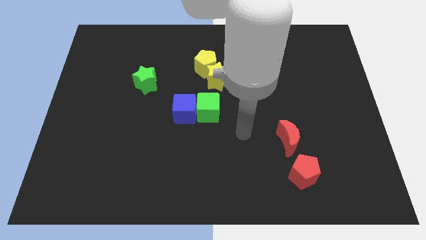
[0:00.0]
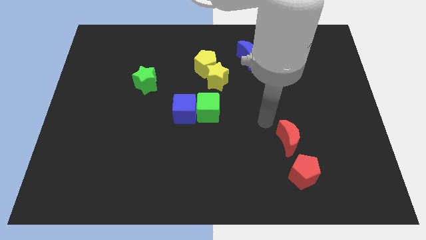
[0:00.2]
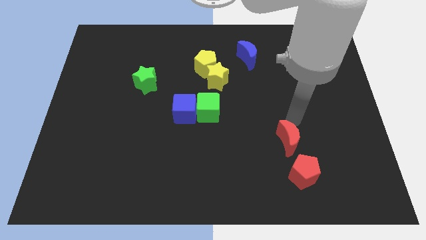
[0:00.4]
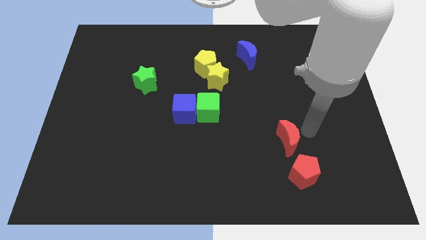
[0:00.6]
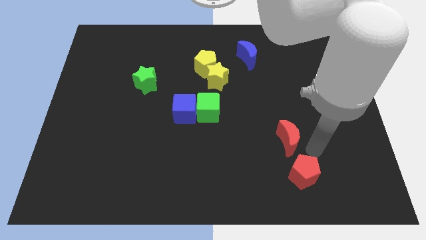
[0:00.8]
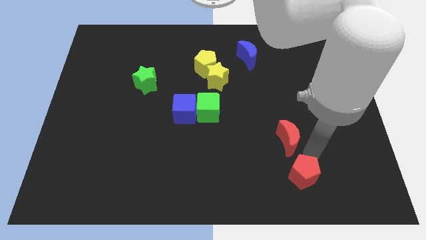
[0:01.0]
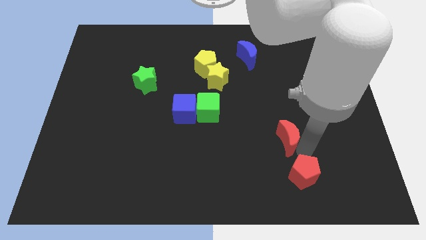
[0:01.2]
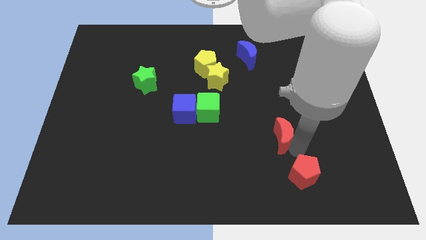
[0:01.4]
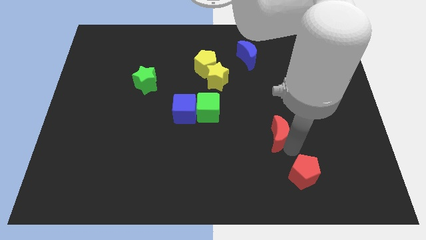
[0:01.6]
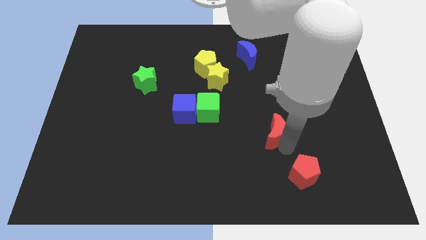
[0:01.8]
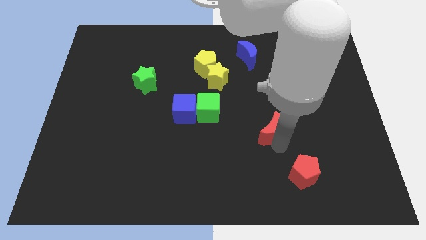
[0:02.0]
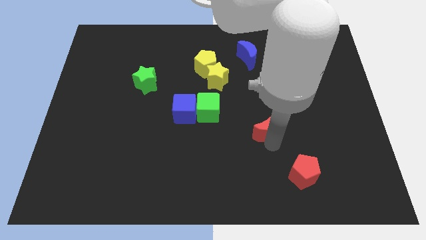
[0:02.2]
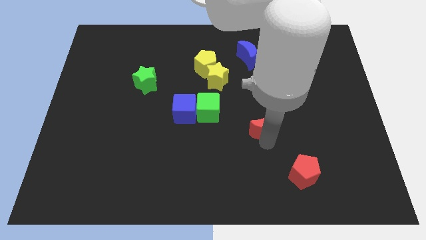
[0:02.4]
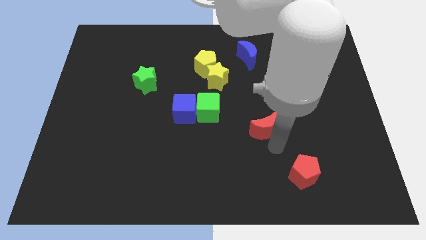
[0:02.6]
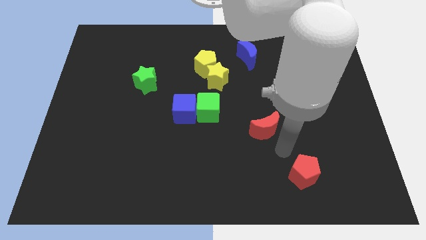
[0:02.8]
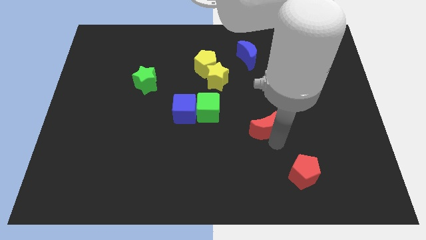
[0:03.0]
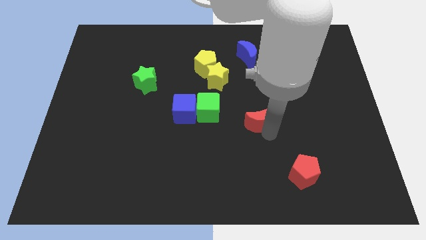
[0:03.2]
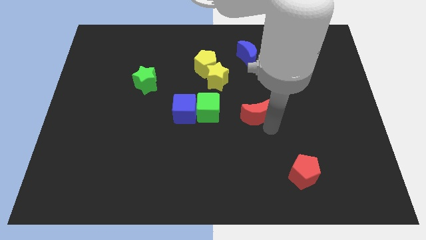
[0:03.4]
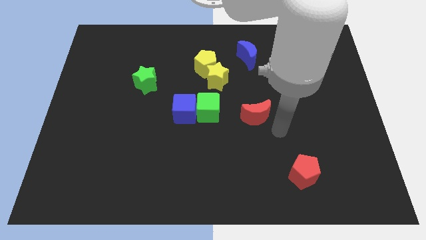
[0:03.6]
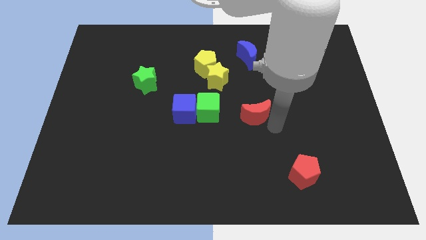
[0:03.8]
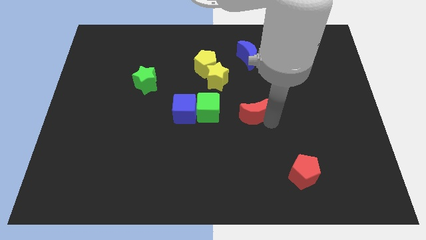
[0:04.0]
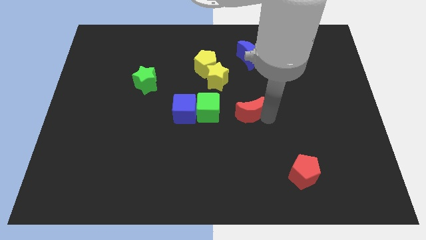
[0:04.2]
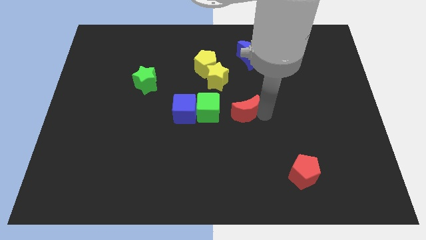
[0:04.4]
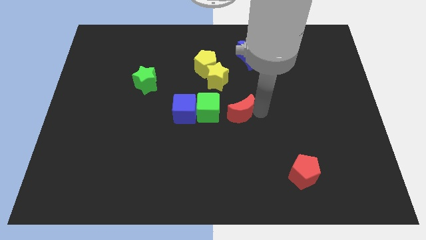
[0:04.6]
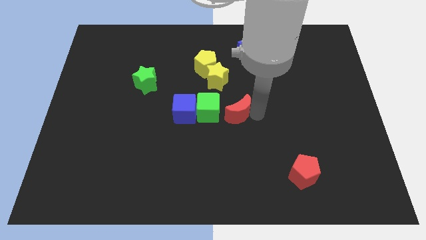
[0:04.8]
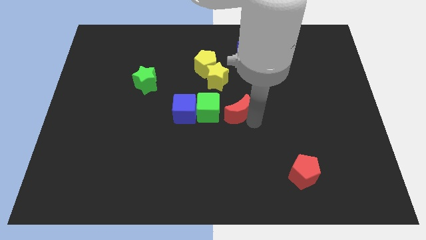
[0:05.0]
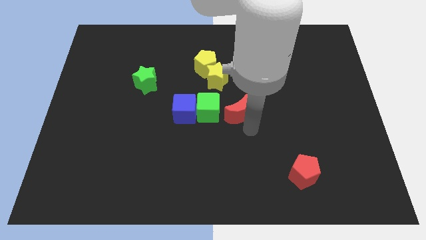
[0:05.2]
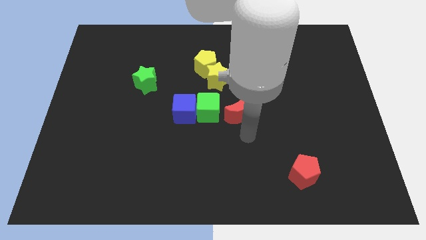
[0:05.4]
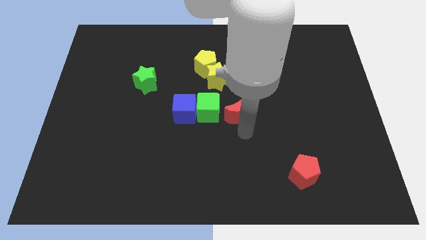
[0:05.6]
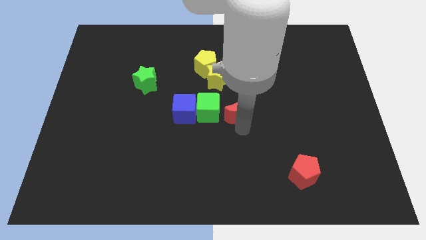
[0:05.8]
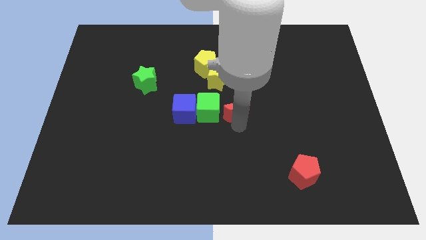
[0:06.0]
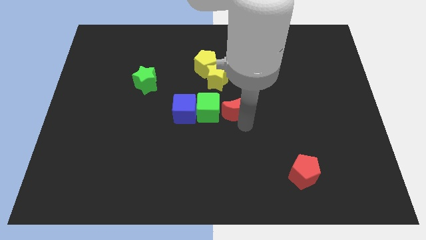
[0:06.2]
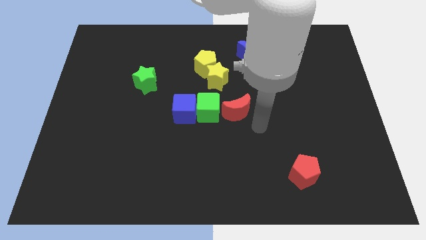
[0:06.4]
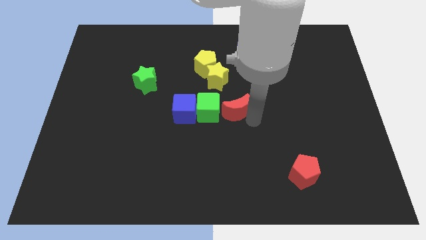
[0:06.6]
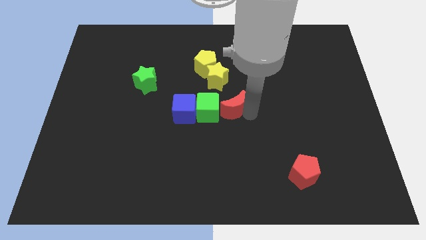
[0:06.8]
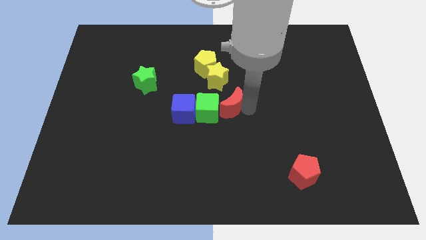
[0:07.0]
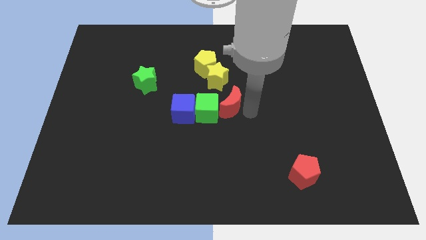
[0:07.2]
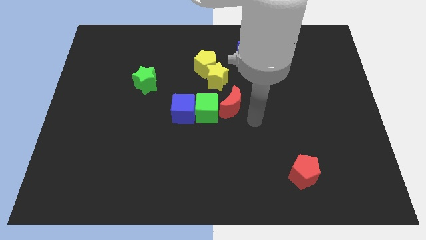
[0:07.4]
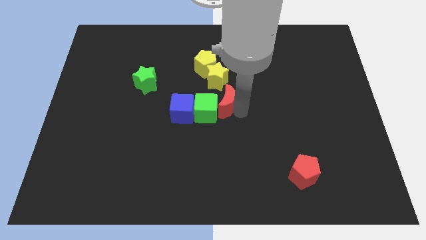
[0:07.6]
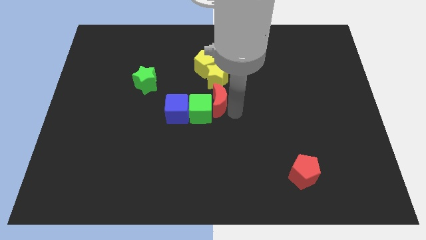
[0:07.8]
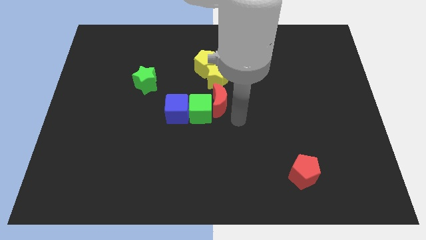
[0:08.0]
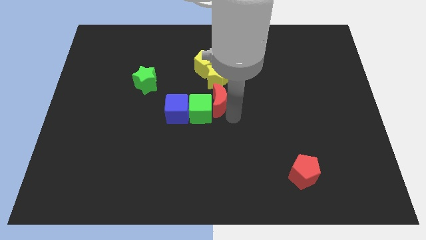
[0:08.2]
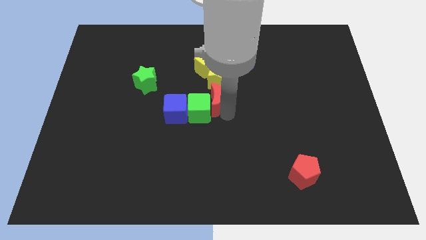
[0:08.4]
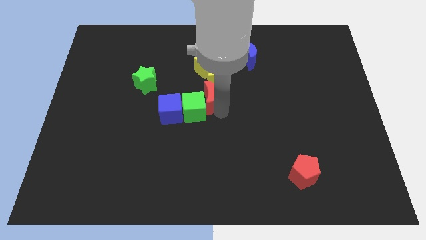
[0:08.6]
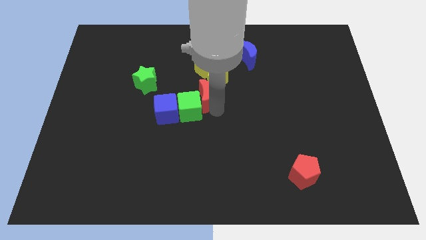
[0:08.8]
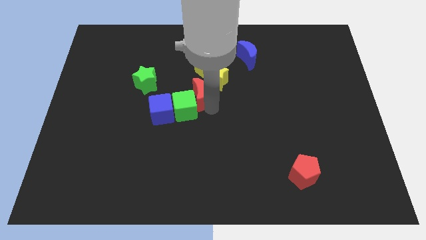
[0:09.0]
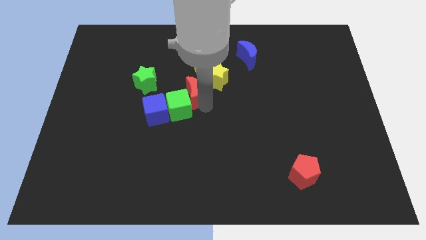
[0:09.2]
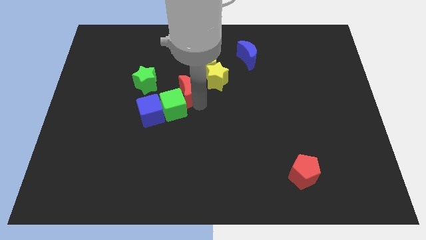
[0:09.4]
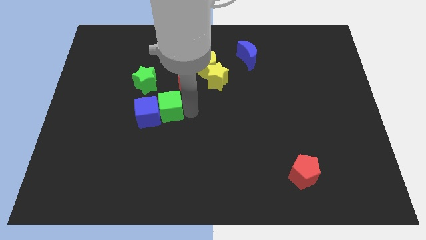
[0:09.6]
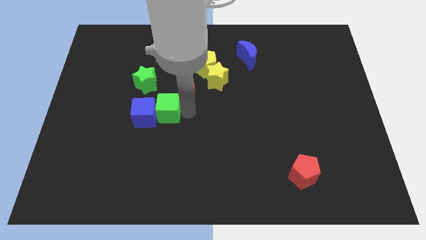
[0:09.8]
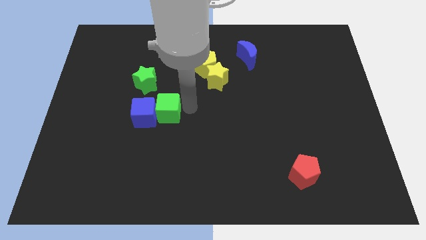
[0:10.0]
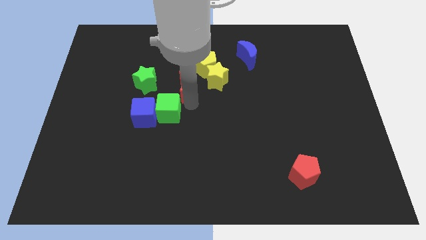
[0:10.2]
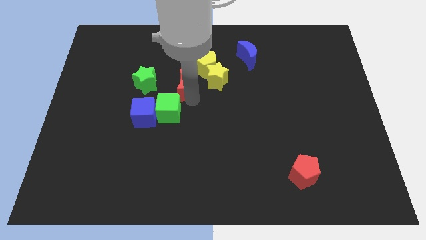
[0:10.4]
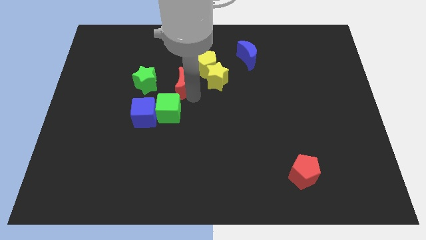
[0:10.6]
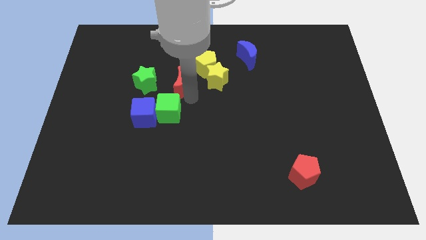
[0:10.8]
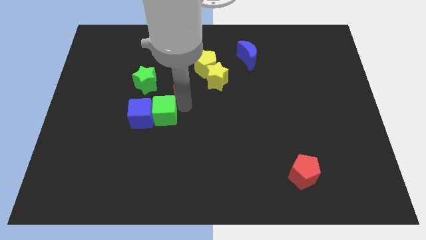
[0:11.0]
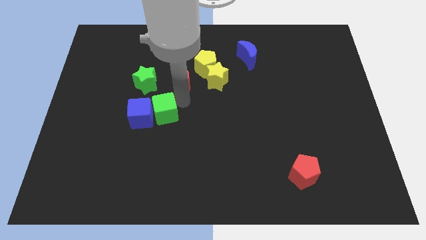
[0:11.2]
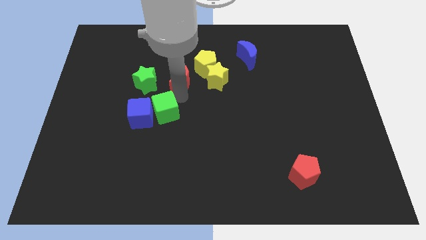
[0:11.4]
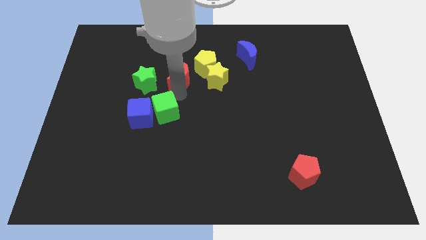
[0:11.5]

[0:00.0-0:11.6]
push the red moon left of the yellow pentagon
